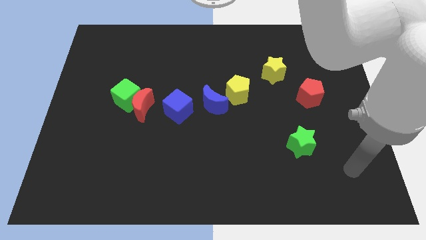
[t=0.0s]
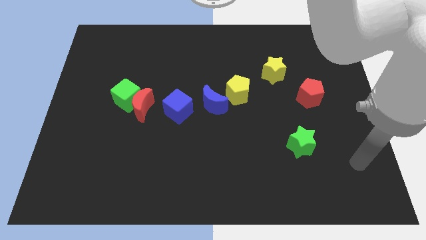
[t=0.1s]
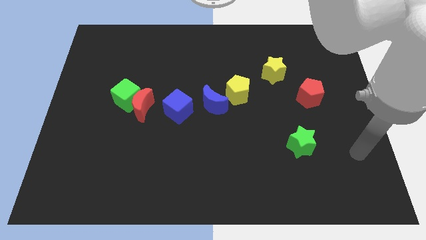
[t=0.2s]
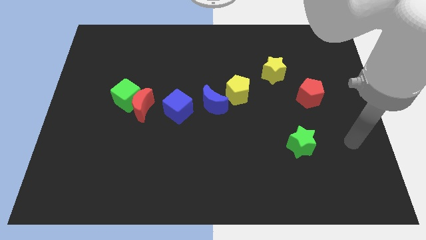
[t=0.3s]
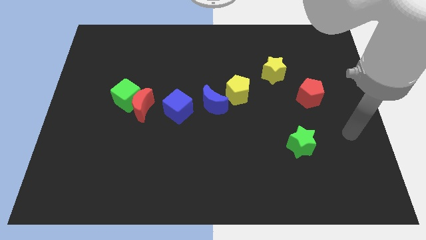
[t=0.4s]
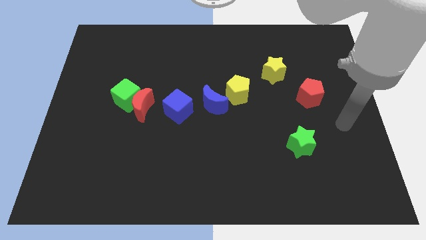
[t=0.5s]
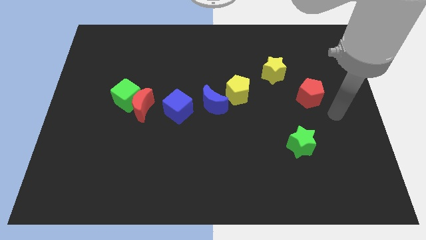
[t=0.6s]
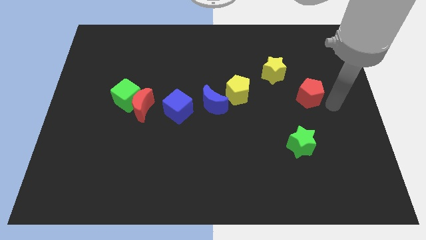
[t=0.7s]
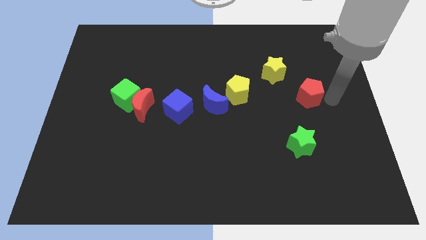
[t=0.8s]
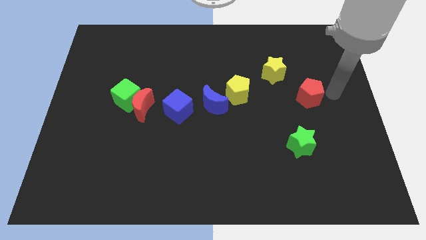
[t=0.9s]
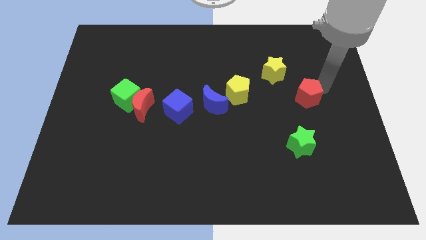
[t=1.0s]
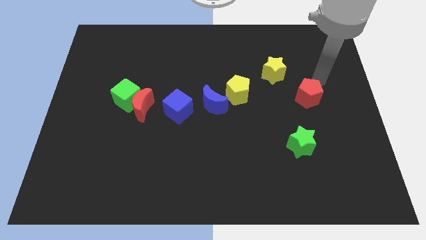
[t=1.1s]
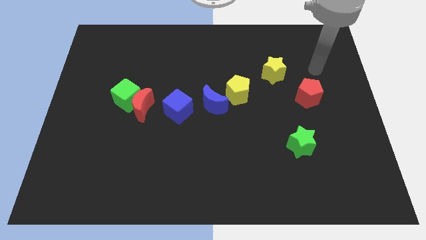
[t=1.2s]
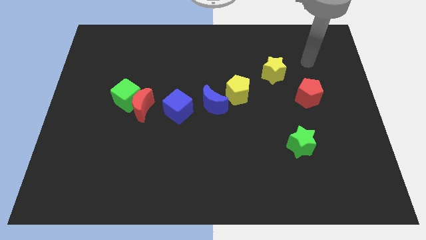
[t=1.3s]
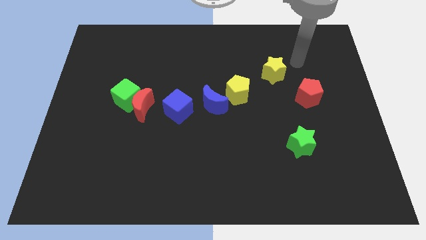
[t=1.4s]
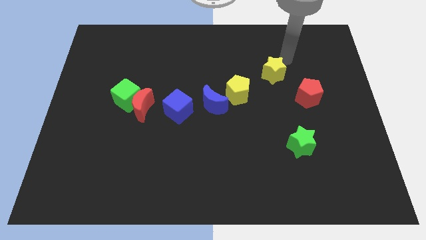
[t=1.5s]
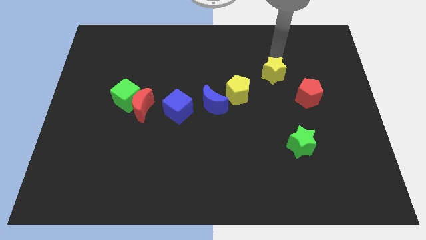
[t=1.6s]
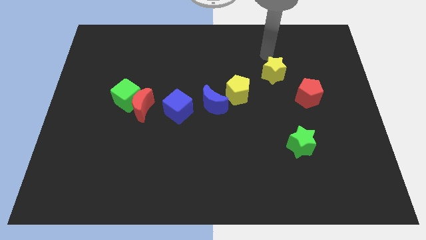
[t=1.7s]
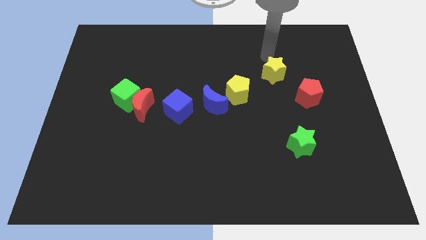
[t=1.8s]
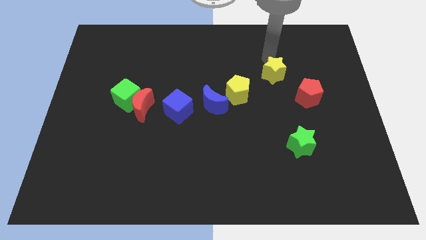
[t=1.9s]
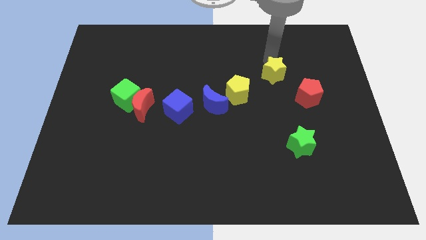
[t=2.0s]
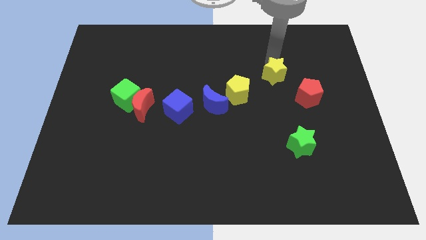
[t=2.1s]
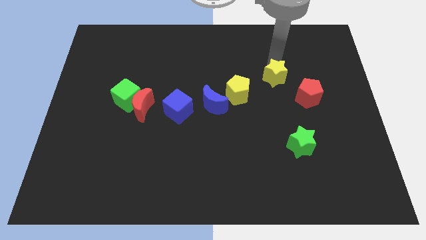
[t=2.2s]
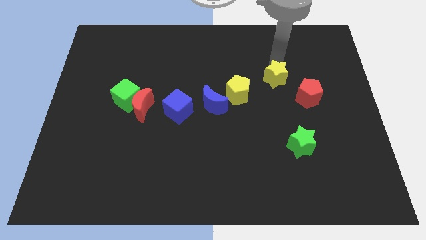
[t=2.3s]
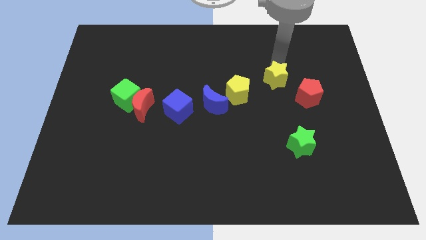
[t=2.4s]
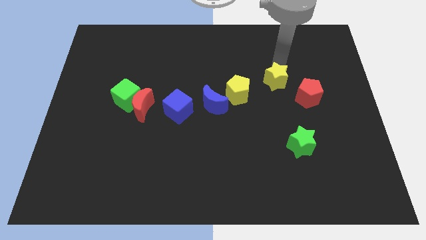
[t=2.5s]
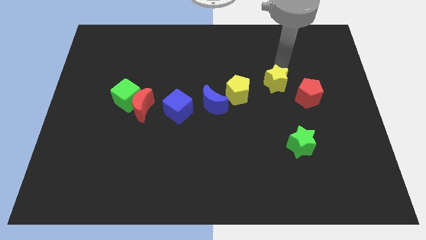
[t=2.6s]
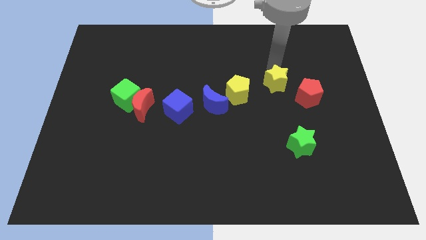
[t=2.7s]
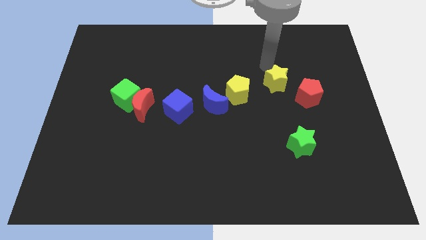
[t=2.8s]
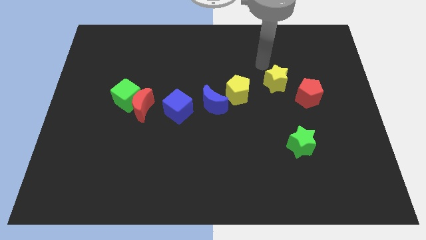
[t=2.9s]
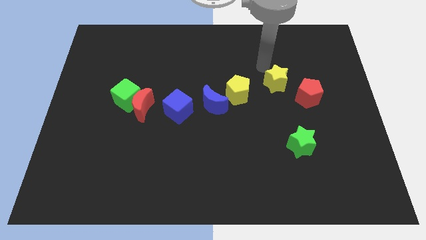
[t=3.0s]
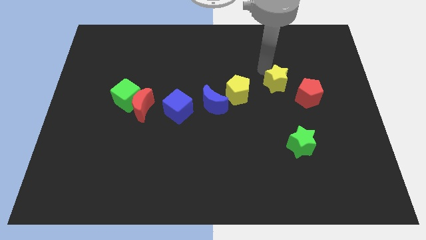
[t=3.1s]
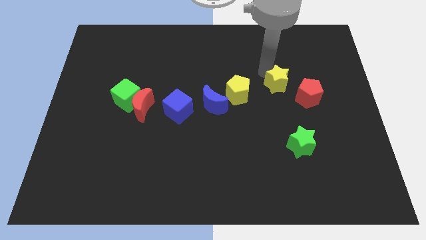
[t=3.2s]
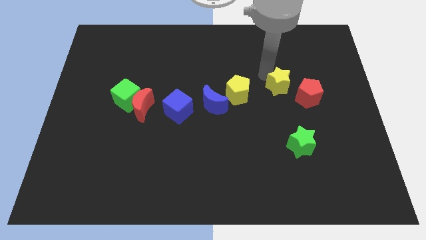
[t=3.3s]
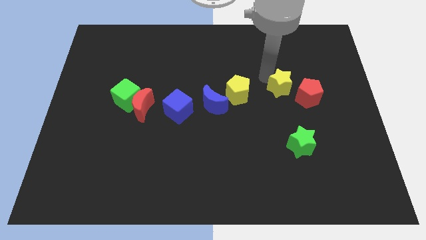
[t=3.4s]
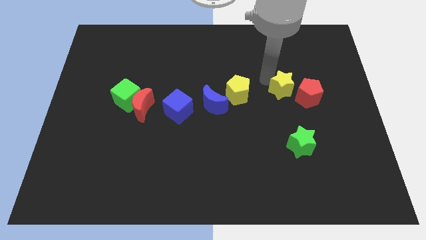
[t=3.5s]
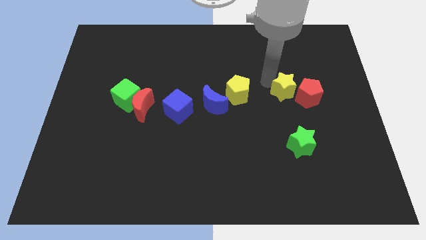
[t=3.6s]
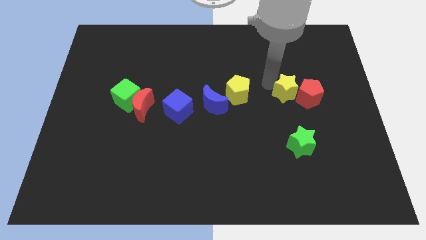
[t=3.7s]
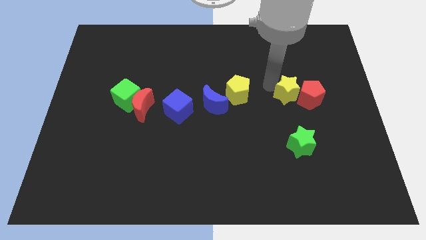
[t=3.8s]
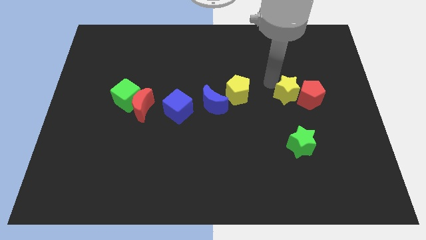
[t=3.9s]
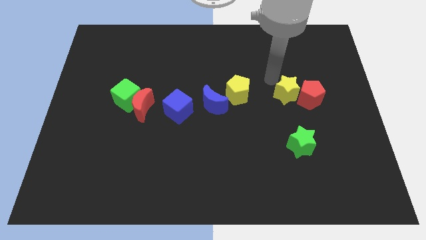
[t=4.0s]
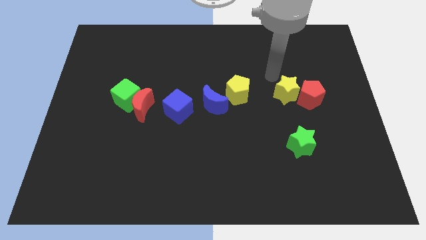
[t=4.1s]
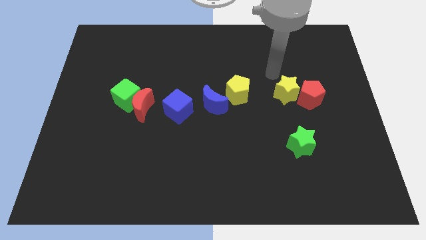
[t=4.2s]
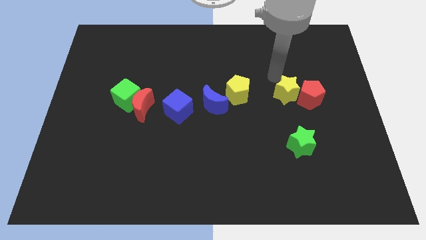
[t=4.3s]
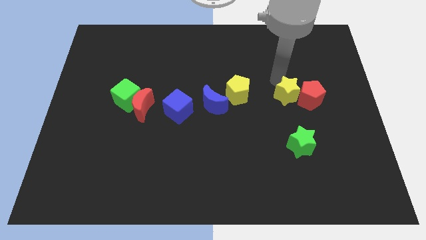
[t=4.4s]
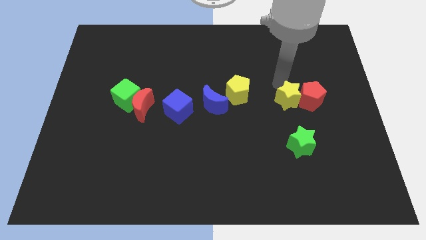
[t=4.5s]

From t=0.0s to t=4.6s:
move the yellow star a bit diagonally down and to the right

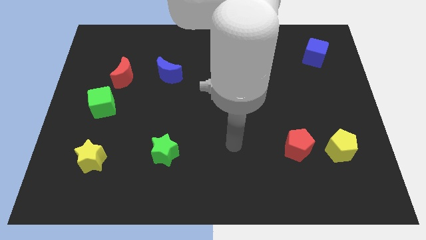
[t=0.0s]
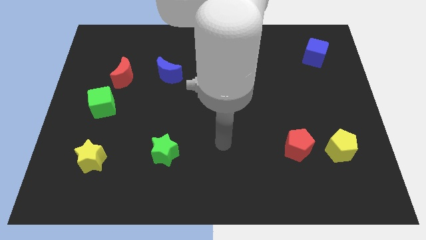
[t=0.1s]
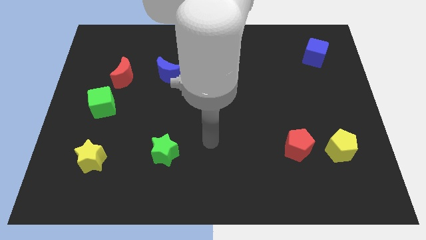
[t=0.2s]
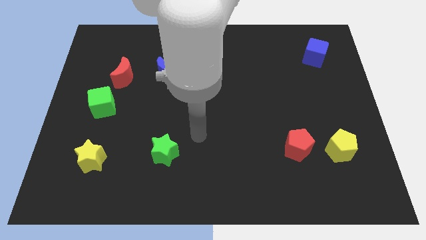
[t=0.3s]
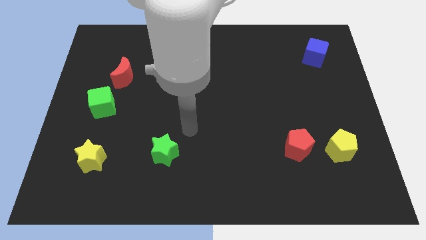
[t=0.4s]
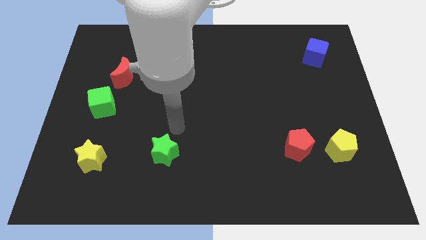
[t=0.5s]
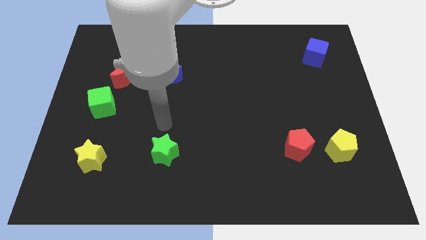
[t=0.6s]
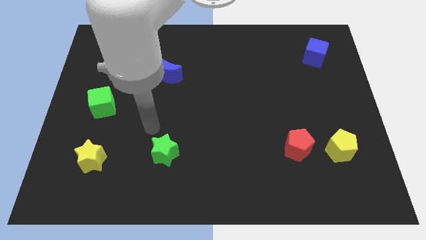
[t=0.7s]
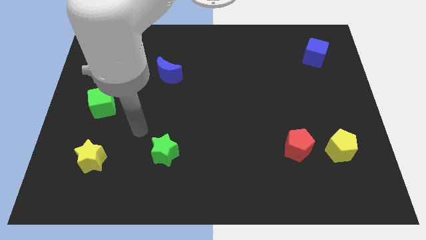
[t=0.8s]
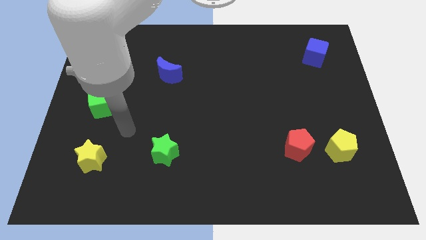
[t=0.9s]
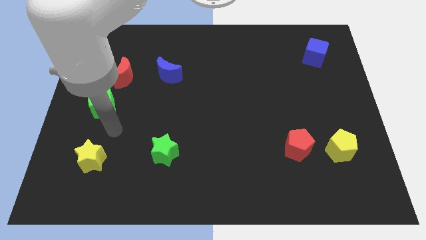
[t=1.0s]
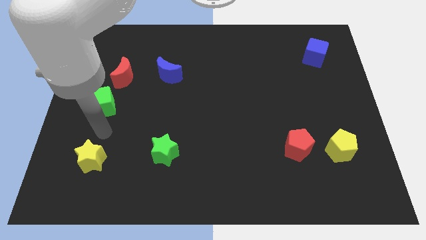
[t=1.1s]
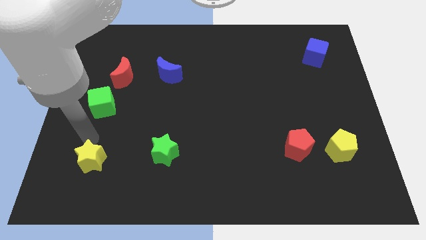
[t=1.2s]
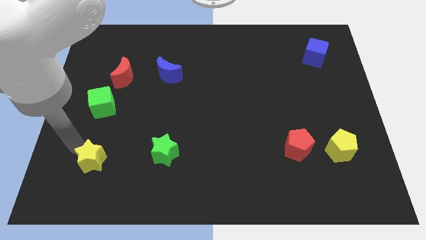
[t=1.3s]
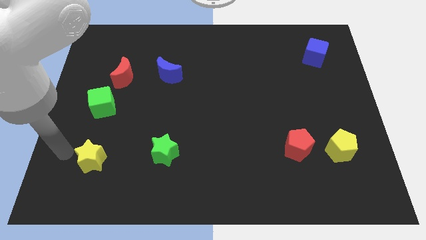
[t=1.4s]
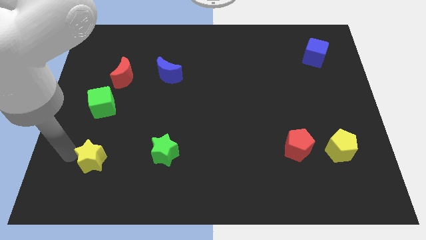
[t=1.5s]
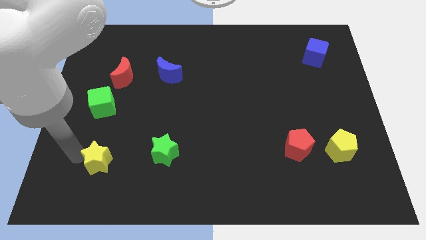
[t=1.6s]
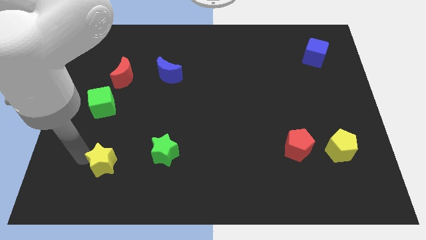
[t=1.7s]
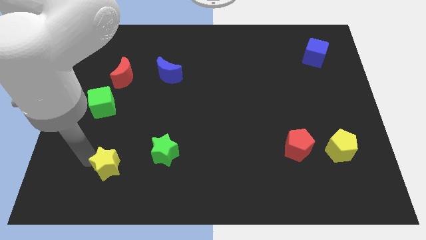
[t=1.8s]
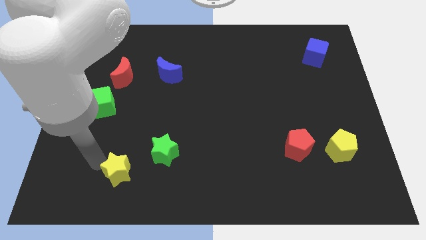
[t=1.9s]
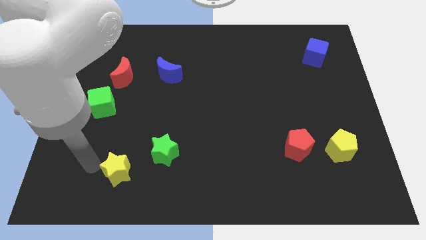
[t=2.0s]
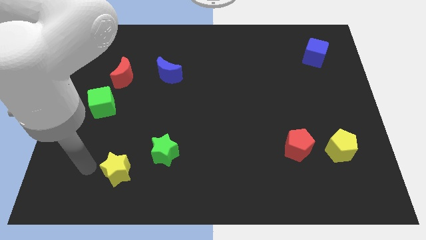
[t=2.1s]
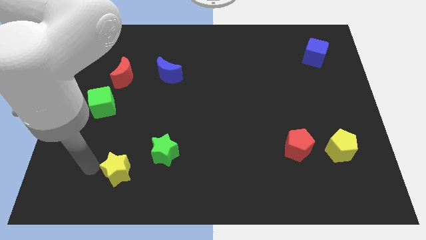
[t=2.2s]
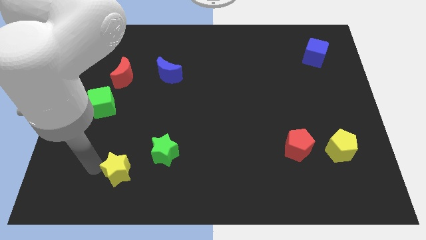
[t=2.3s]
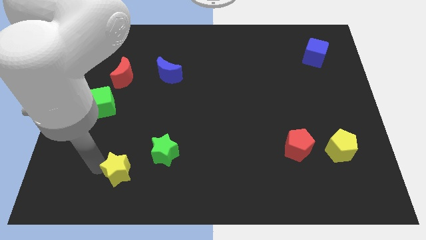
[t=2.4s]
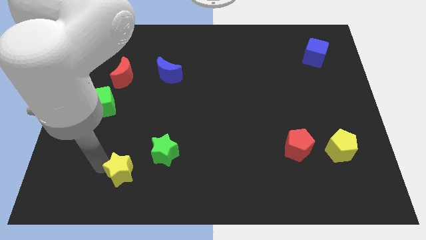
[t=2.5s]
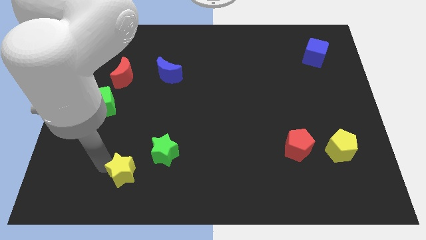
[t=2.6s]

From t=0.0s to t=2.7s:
push the yellow star a bit right

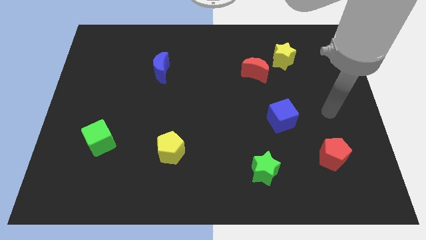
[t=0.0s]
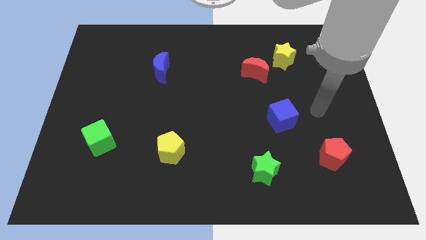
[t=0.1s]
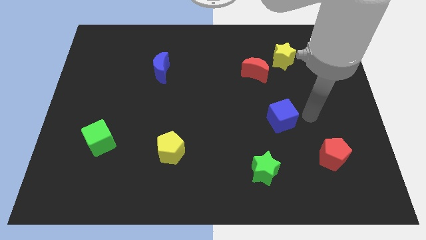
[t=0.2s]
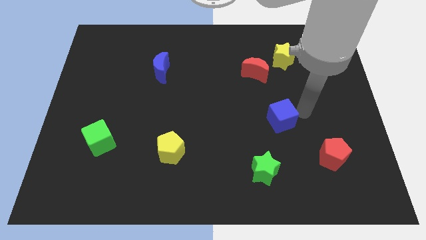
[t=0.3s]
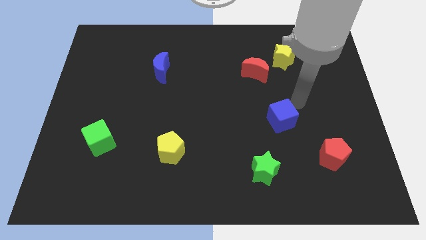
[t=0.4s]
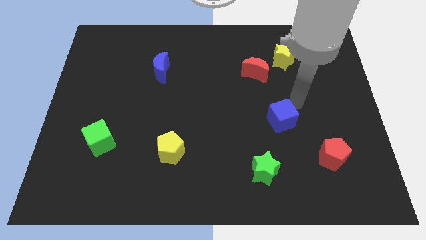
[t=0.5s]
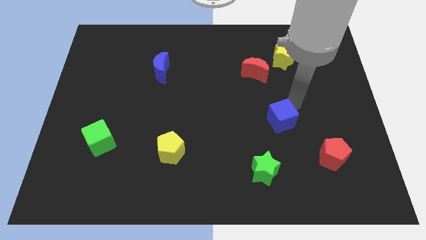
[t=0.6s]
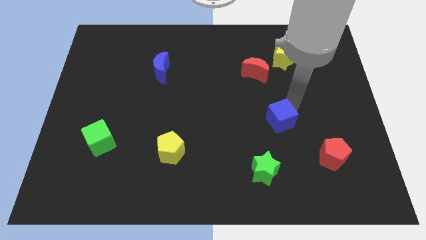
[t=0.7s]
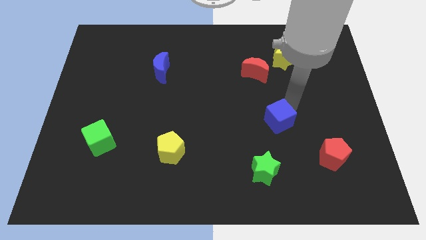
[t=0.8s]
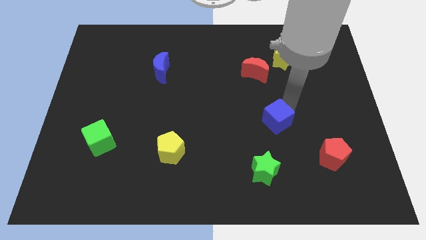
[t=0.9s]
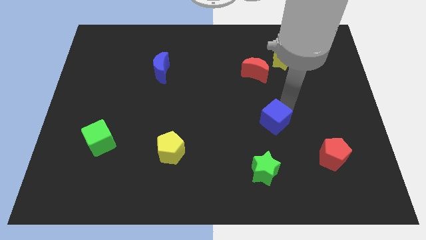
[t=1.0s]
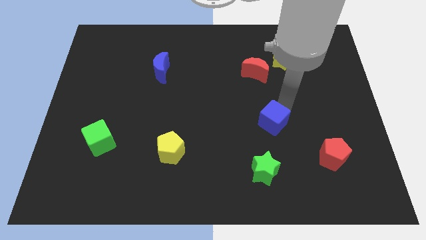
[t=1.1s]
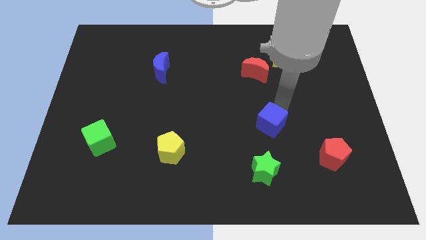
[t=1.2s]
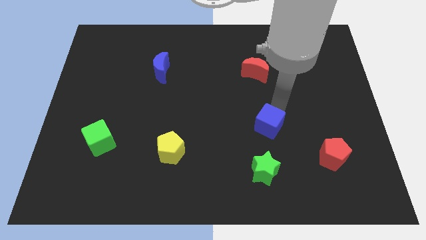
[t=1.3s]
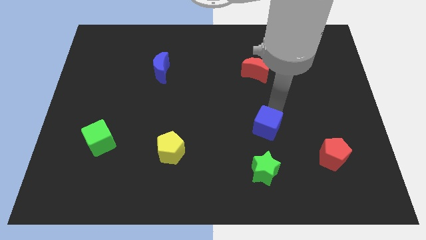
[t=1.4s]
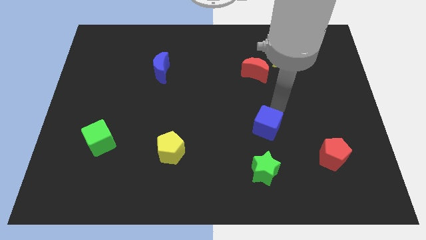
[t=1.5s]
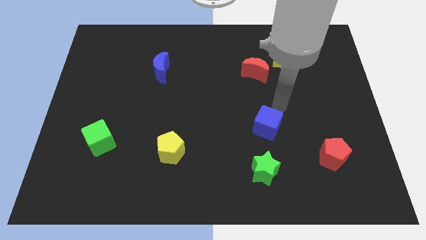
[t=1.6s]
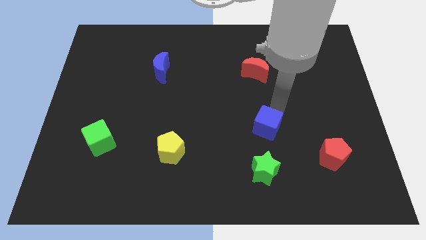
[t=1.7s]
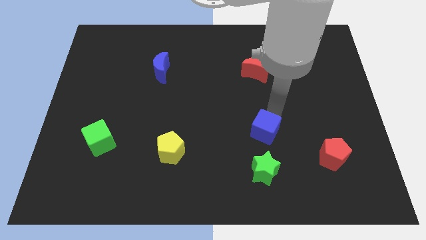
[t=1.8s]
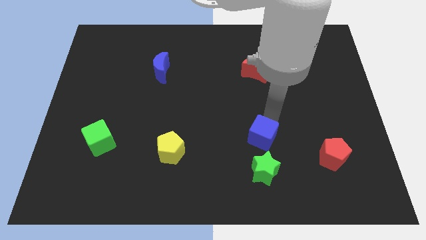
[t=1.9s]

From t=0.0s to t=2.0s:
move the blue cube a bit diagonally down and to the left
